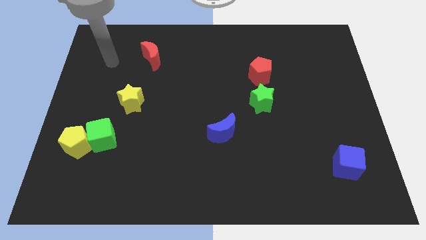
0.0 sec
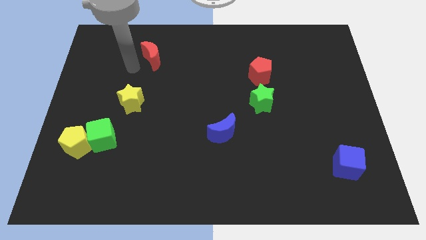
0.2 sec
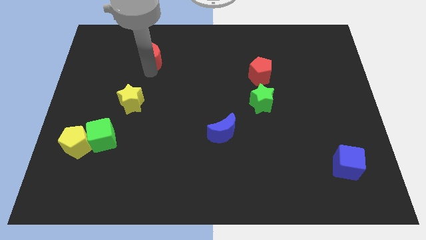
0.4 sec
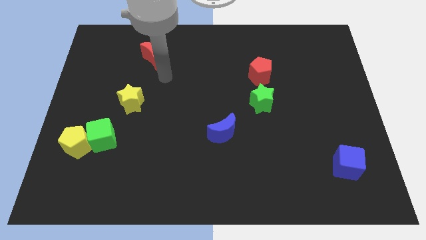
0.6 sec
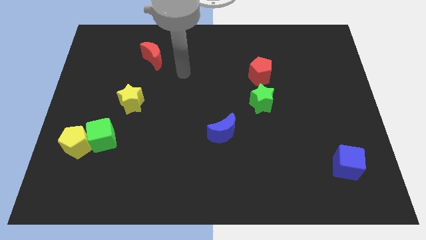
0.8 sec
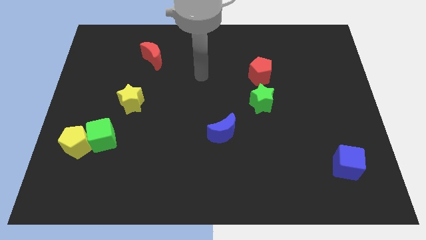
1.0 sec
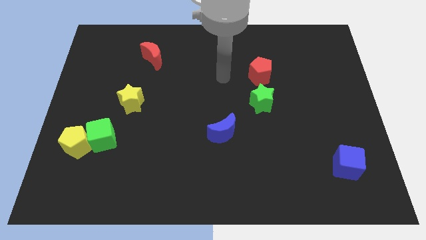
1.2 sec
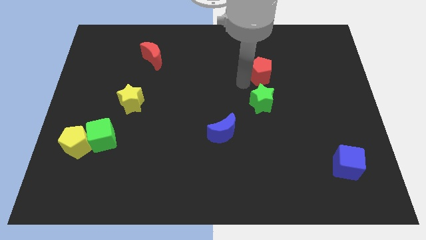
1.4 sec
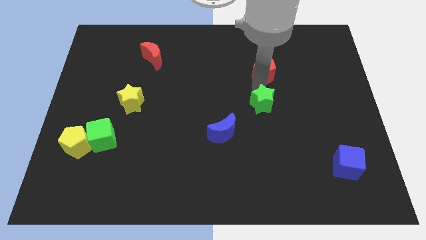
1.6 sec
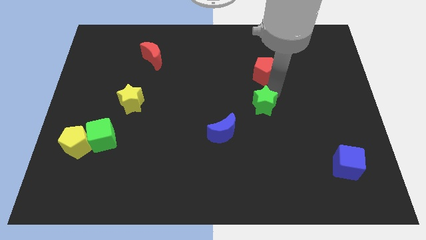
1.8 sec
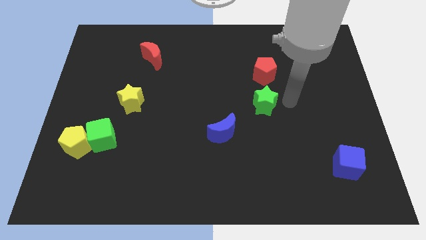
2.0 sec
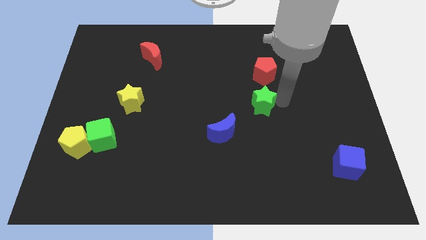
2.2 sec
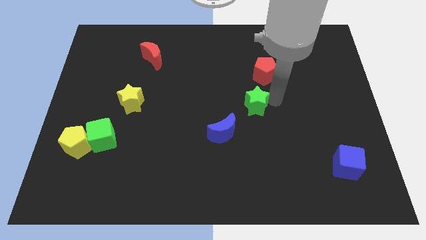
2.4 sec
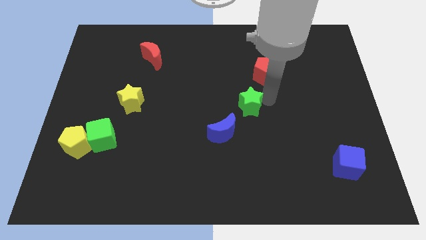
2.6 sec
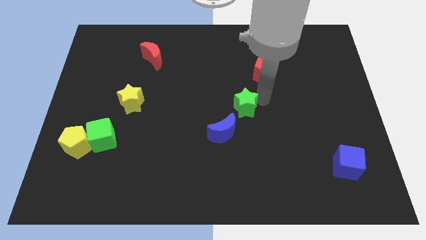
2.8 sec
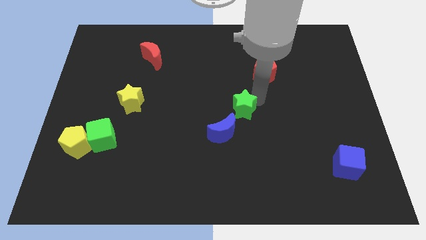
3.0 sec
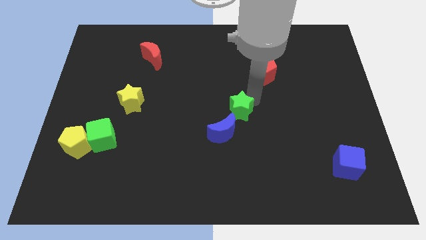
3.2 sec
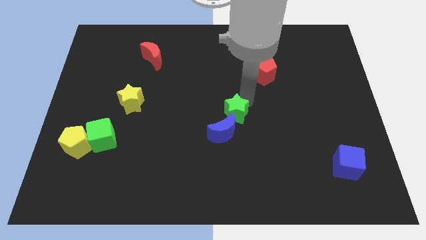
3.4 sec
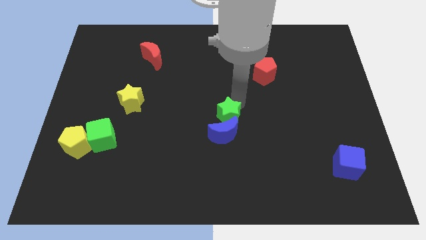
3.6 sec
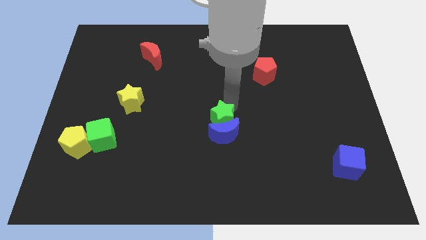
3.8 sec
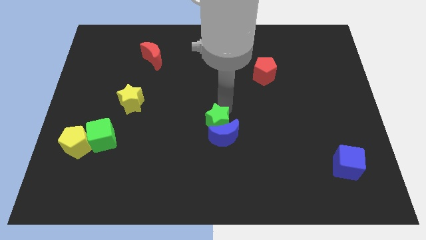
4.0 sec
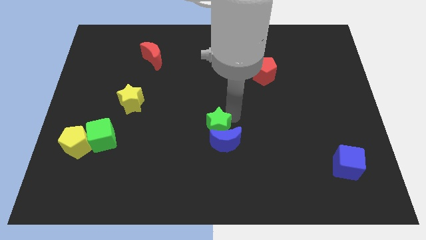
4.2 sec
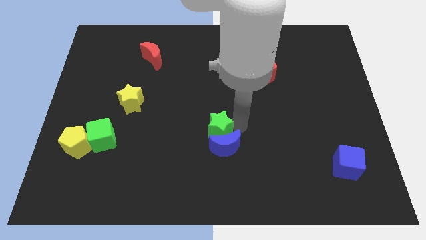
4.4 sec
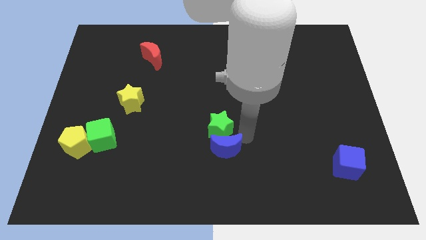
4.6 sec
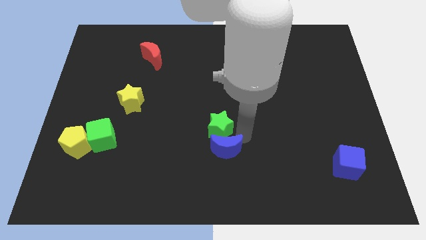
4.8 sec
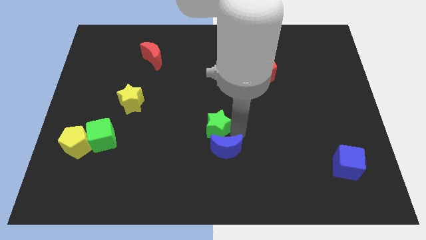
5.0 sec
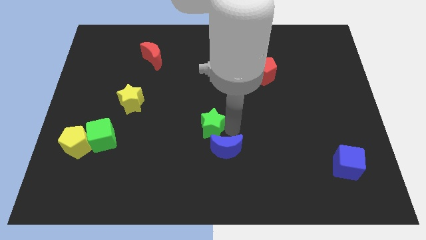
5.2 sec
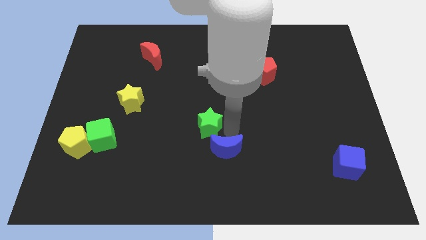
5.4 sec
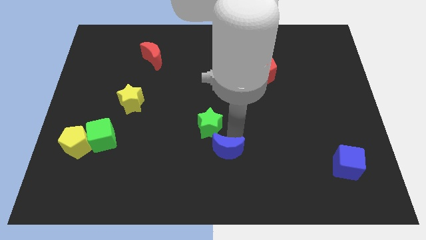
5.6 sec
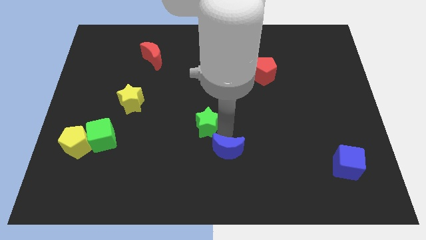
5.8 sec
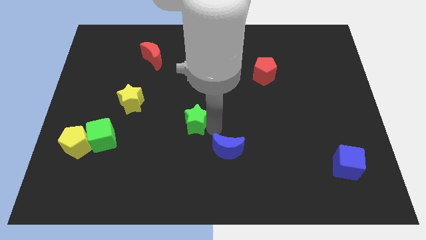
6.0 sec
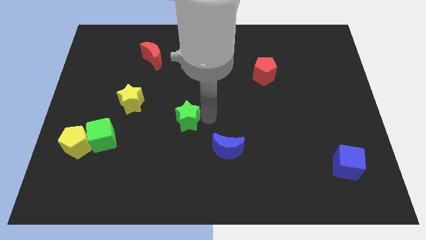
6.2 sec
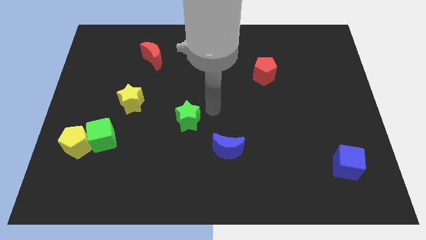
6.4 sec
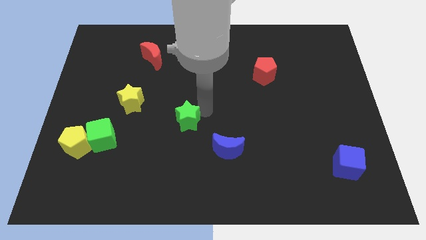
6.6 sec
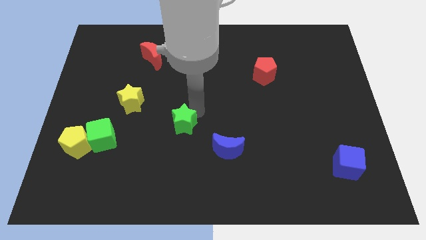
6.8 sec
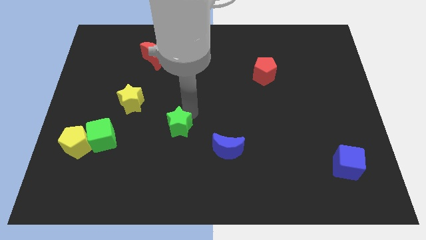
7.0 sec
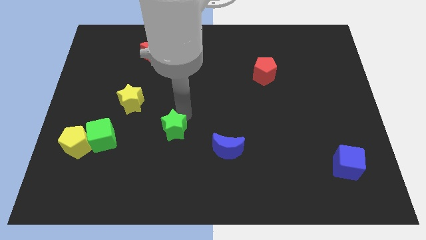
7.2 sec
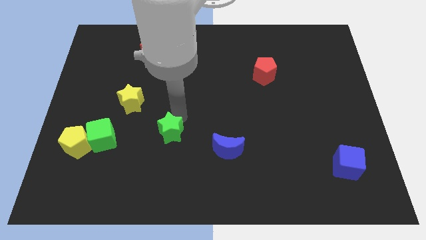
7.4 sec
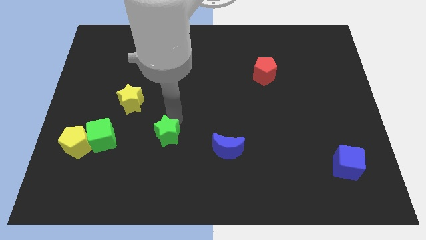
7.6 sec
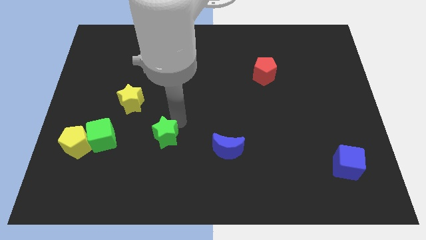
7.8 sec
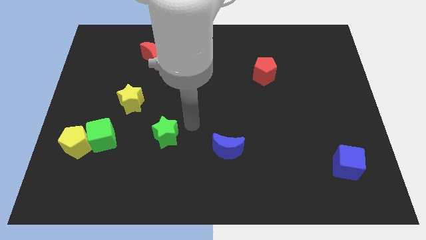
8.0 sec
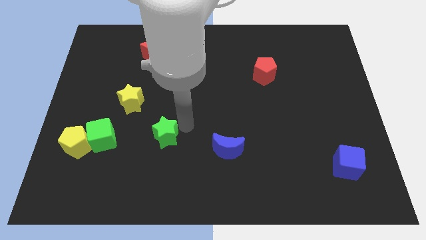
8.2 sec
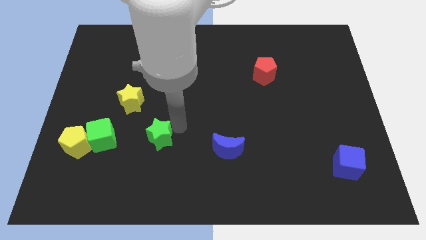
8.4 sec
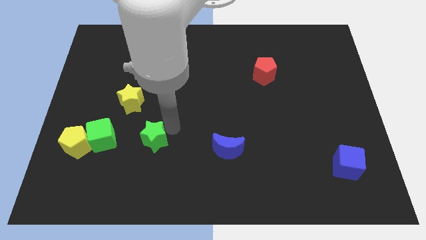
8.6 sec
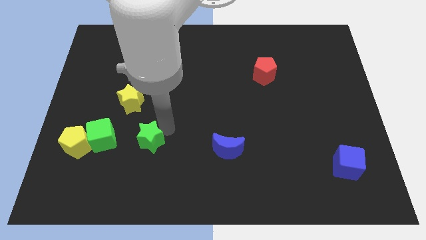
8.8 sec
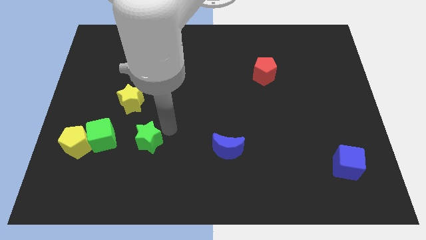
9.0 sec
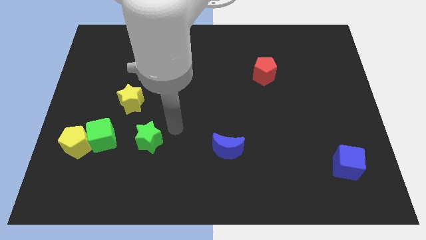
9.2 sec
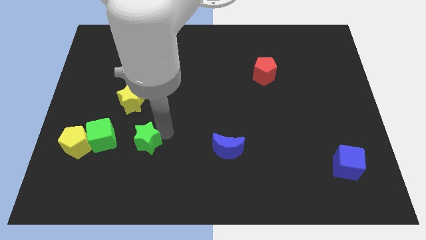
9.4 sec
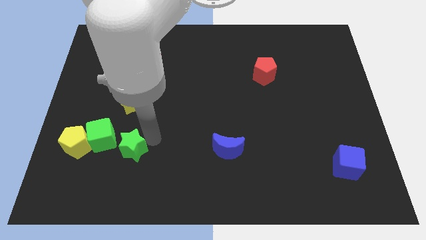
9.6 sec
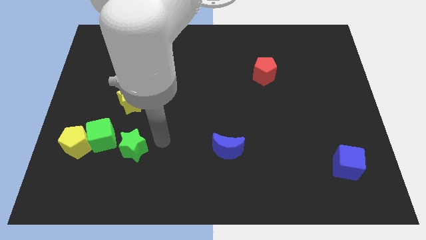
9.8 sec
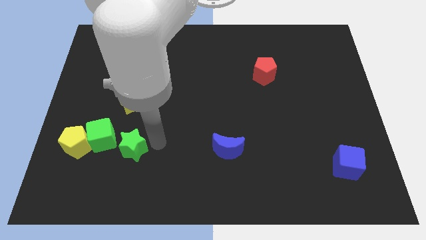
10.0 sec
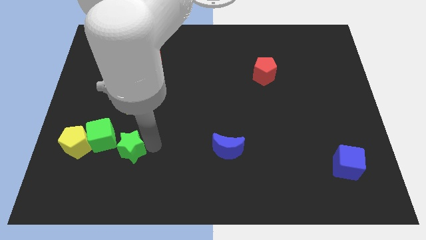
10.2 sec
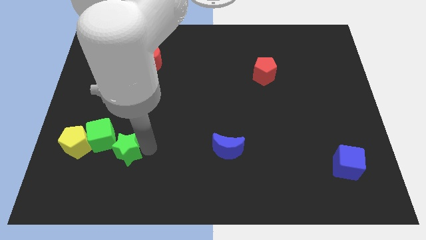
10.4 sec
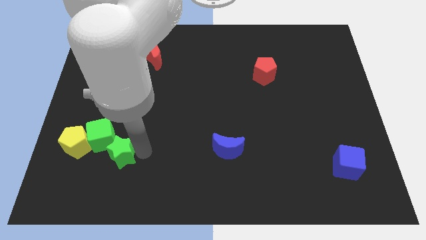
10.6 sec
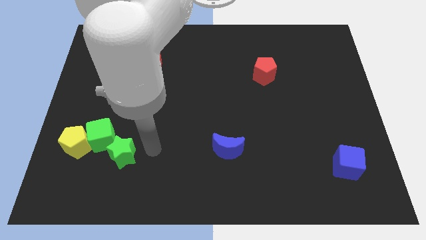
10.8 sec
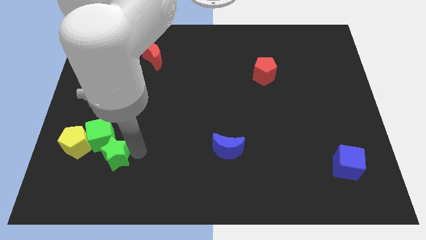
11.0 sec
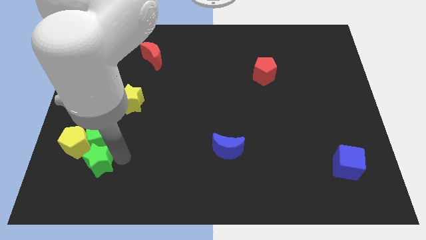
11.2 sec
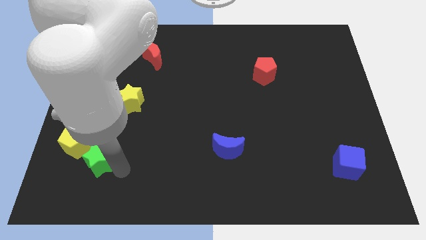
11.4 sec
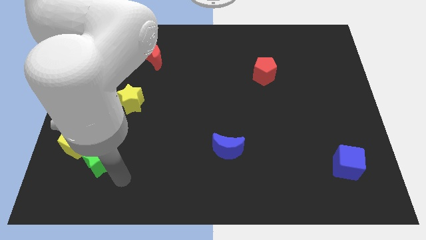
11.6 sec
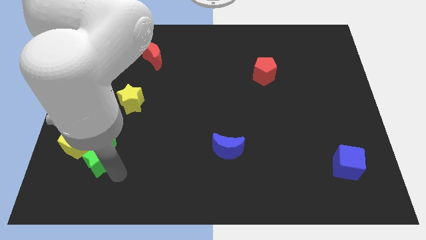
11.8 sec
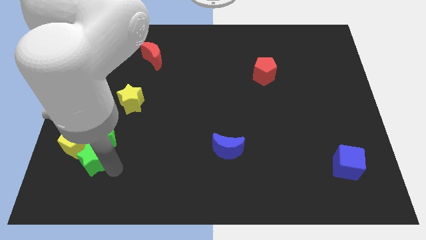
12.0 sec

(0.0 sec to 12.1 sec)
slide the green star next to the yellow pentagon
